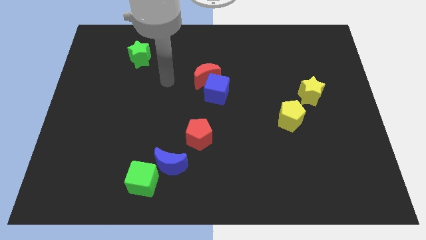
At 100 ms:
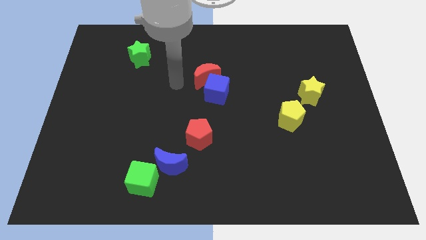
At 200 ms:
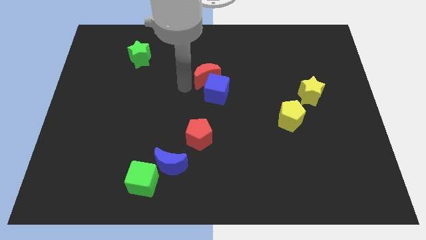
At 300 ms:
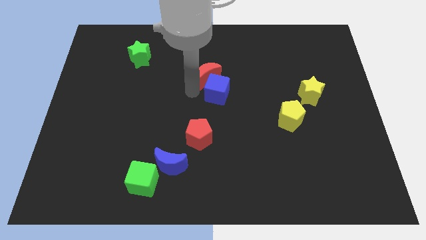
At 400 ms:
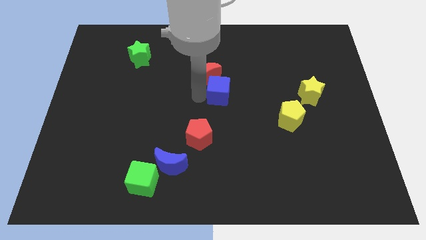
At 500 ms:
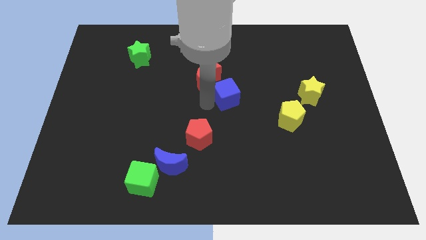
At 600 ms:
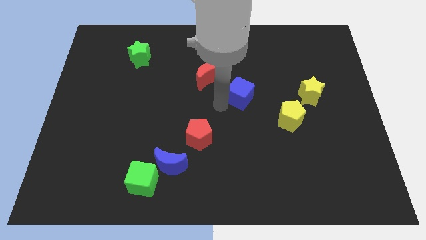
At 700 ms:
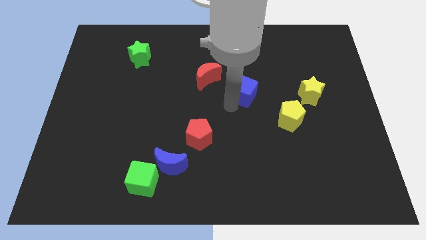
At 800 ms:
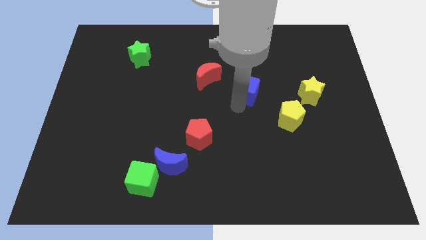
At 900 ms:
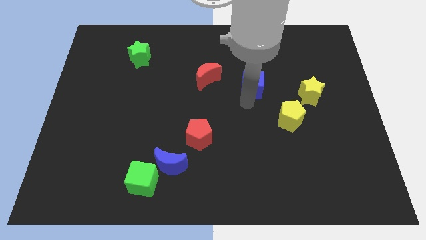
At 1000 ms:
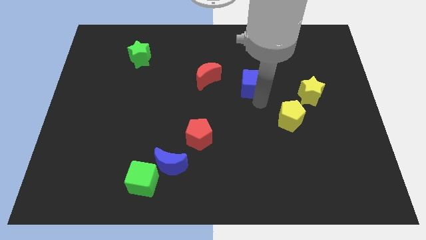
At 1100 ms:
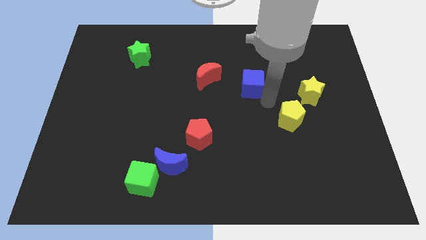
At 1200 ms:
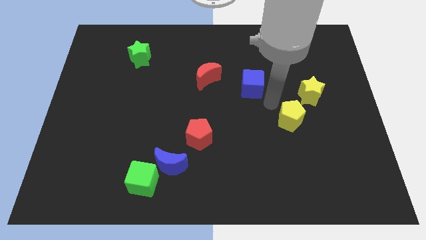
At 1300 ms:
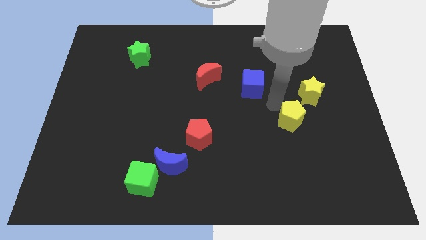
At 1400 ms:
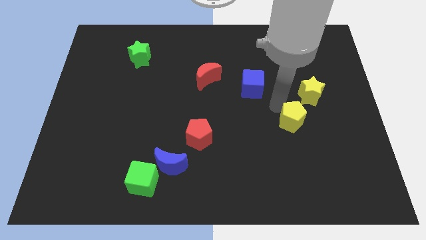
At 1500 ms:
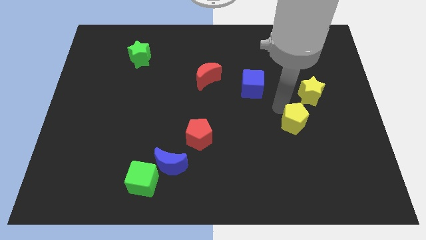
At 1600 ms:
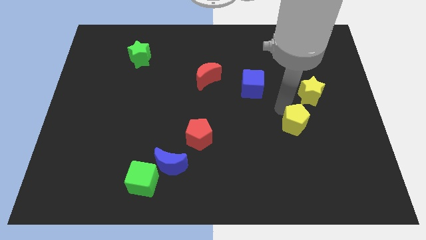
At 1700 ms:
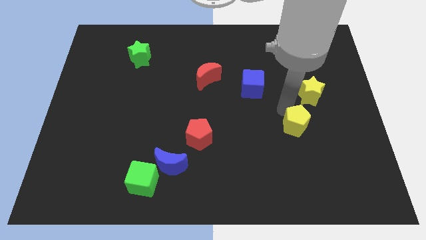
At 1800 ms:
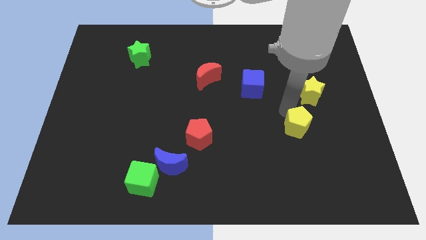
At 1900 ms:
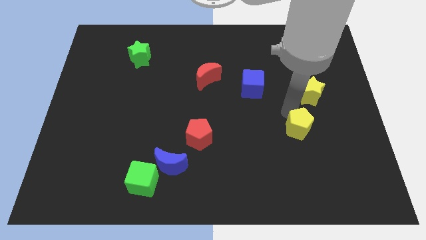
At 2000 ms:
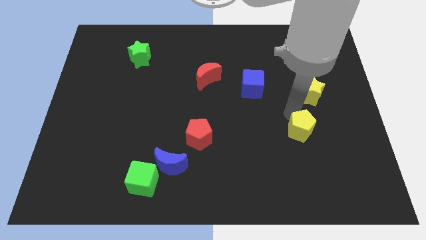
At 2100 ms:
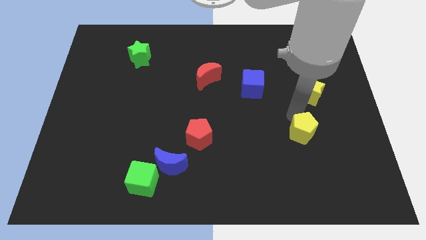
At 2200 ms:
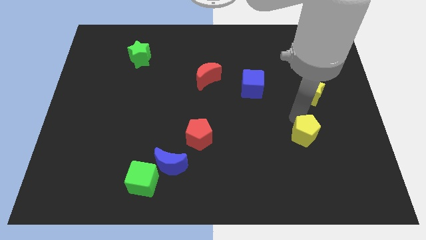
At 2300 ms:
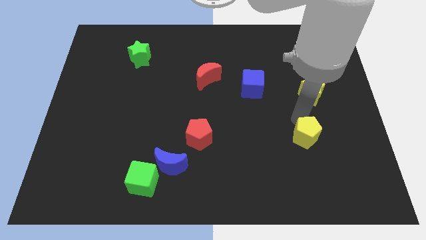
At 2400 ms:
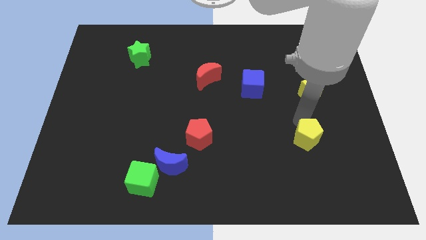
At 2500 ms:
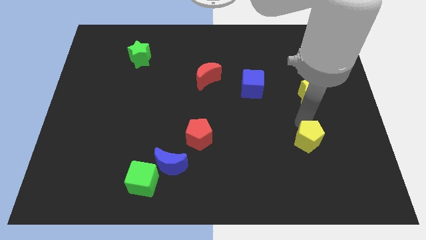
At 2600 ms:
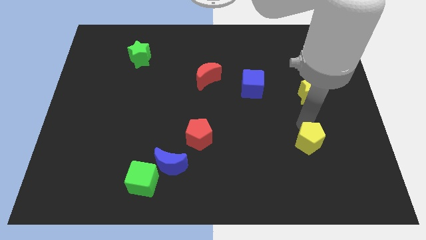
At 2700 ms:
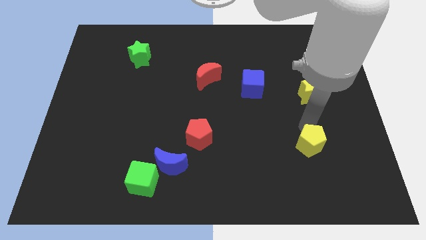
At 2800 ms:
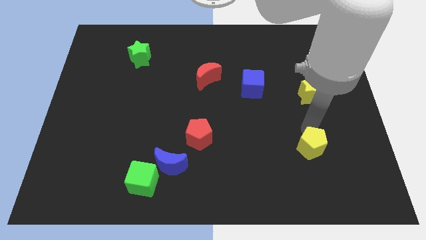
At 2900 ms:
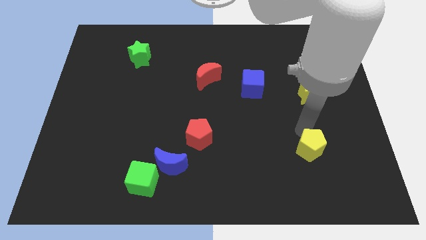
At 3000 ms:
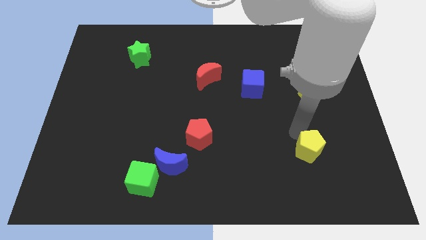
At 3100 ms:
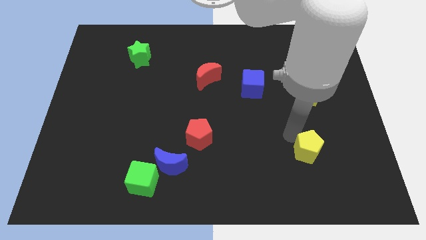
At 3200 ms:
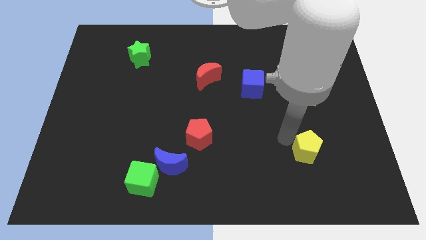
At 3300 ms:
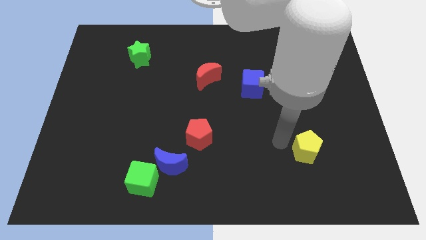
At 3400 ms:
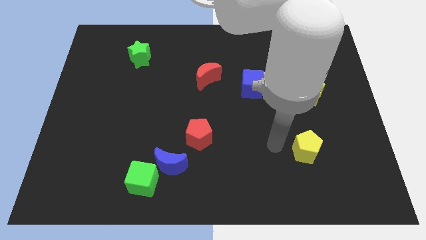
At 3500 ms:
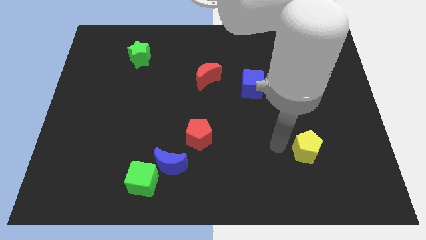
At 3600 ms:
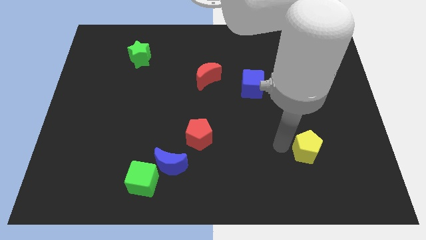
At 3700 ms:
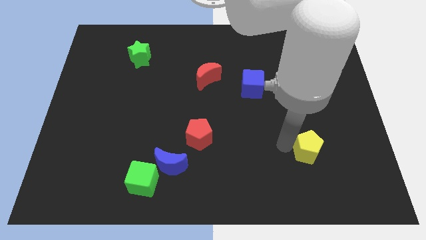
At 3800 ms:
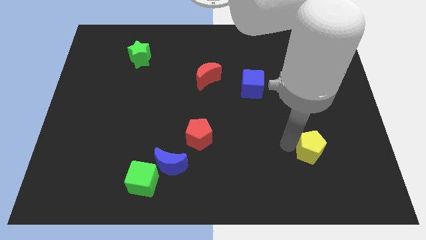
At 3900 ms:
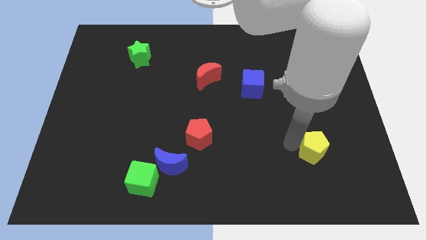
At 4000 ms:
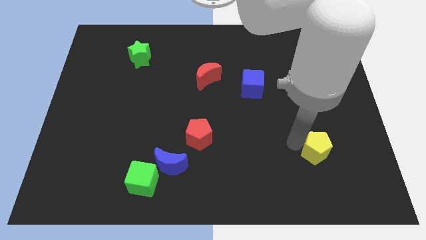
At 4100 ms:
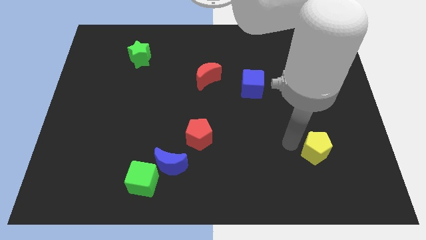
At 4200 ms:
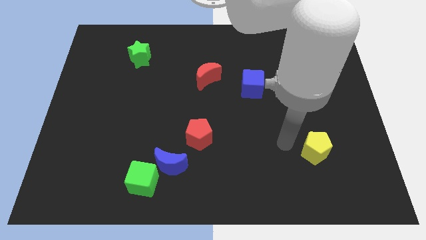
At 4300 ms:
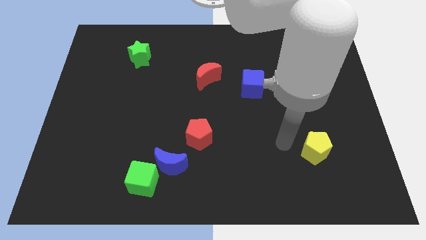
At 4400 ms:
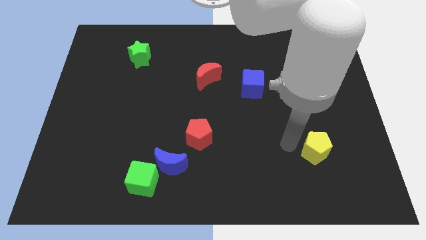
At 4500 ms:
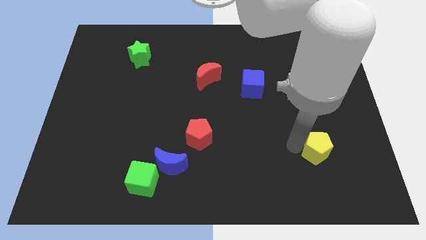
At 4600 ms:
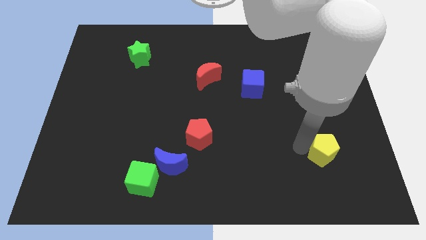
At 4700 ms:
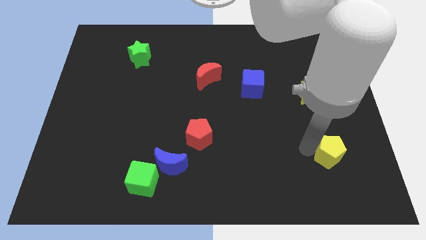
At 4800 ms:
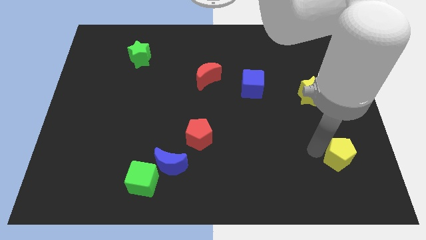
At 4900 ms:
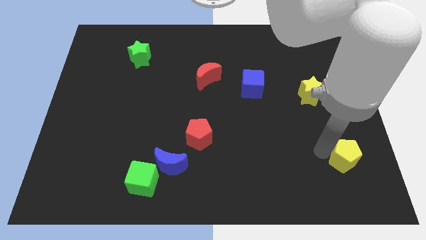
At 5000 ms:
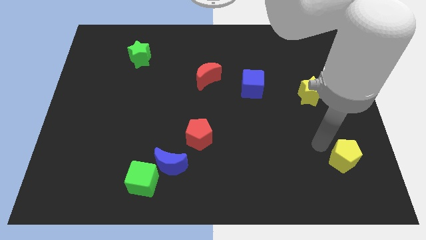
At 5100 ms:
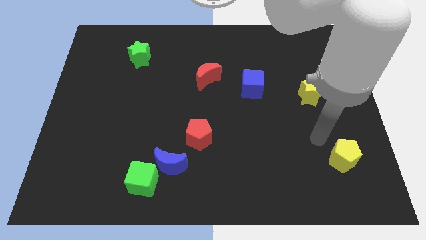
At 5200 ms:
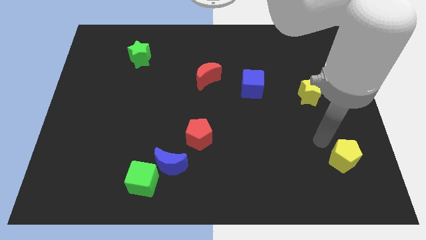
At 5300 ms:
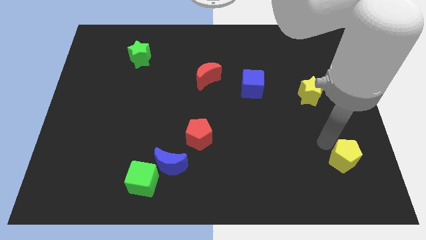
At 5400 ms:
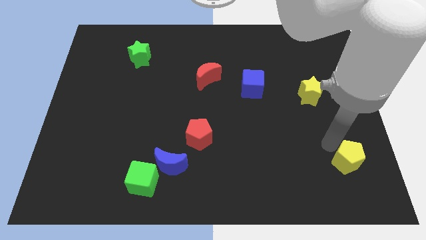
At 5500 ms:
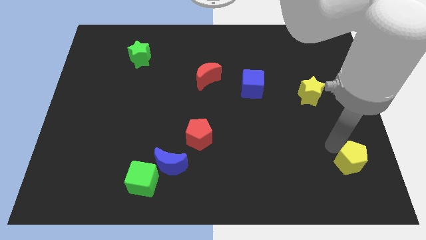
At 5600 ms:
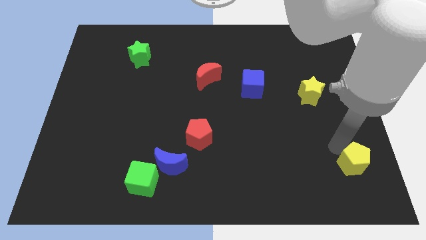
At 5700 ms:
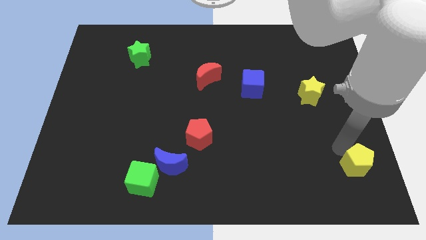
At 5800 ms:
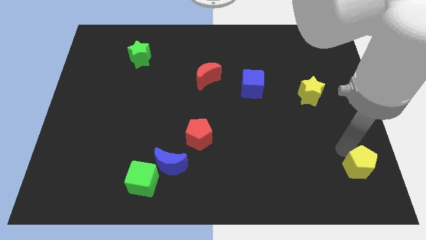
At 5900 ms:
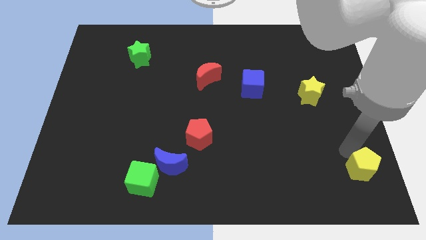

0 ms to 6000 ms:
move the yellow pentagon to the bottom right corner

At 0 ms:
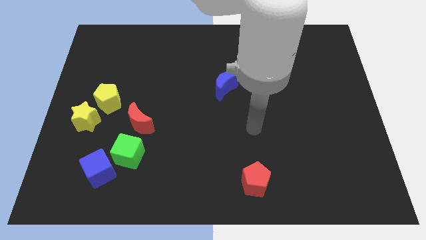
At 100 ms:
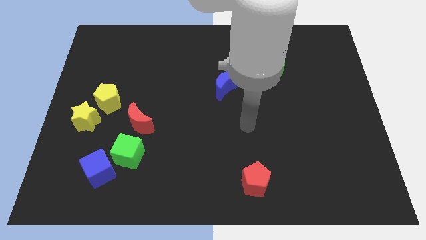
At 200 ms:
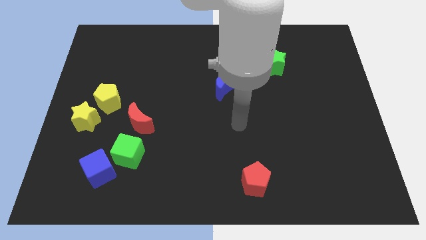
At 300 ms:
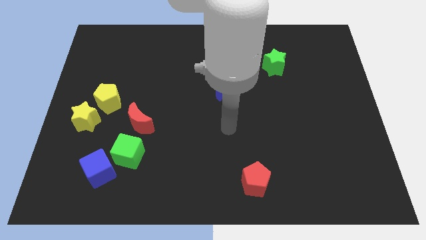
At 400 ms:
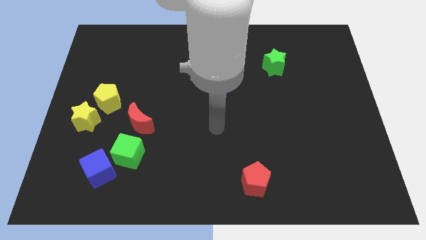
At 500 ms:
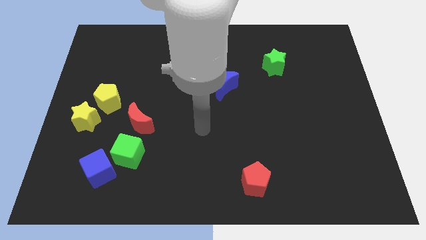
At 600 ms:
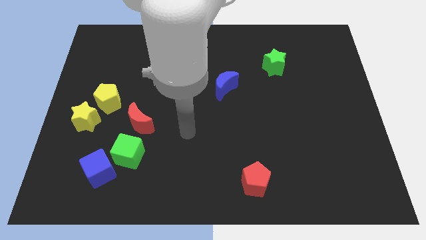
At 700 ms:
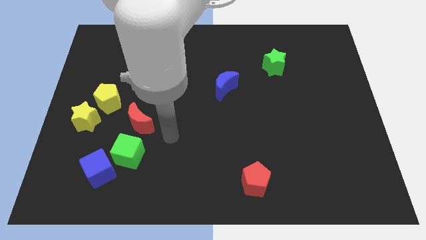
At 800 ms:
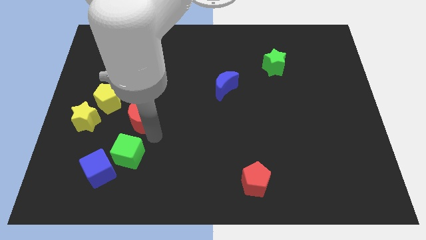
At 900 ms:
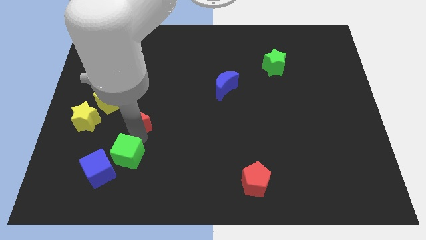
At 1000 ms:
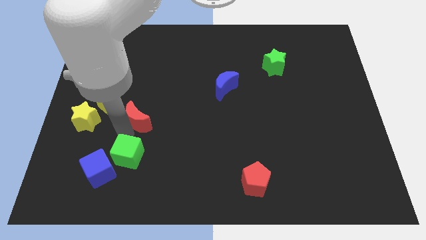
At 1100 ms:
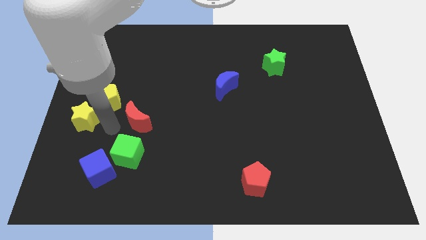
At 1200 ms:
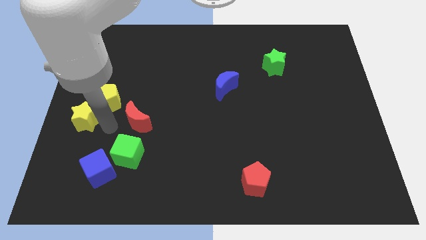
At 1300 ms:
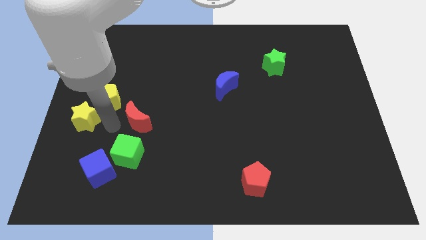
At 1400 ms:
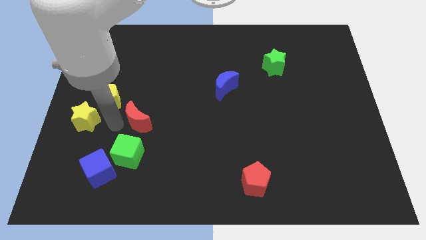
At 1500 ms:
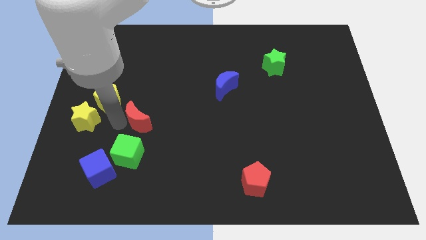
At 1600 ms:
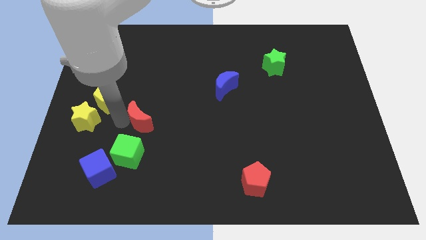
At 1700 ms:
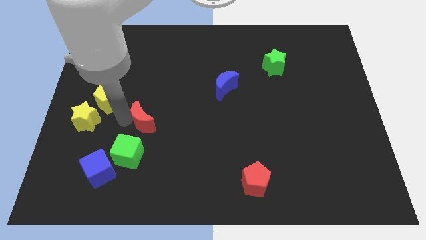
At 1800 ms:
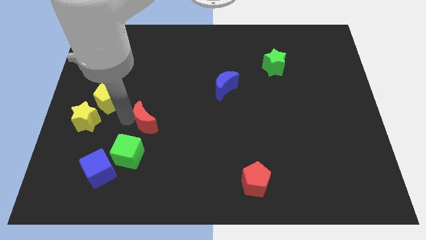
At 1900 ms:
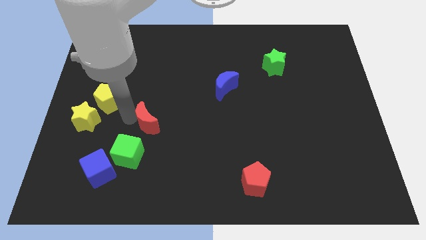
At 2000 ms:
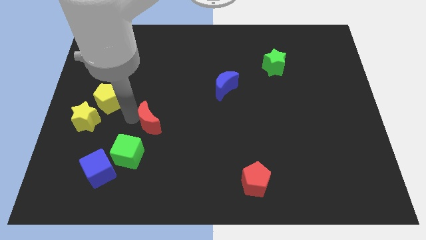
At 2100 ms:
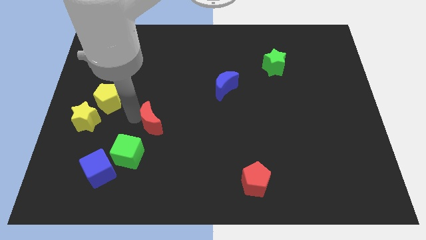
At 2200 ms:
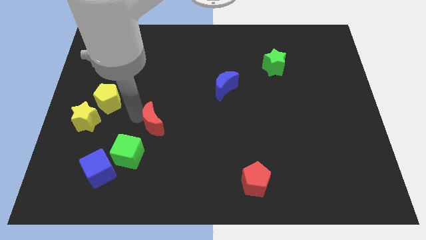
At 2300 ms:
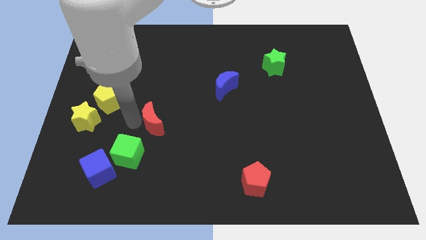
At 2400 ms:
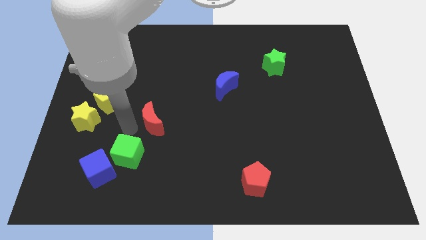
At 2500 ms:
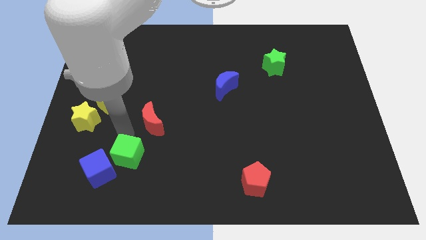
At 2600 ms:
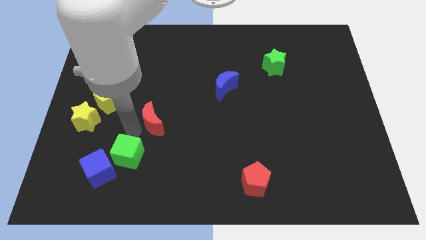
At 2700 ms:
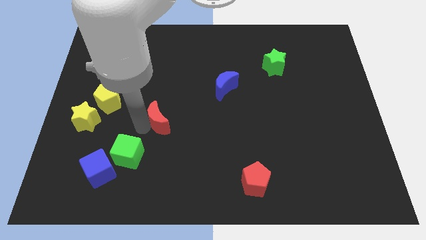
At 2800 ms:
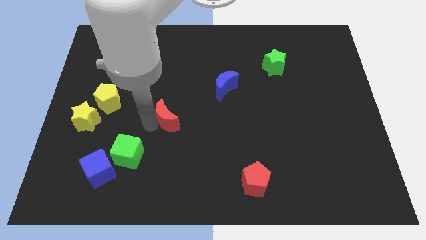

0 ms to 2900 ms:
slide the red moon to the center
